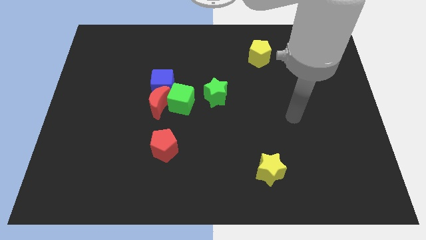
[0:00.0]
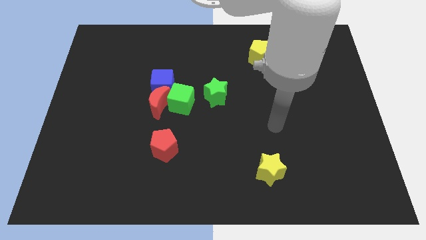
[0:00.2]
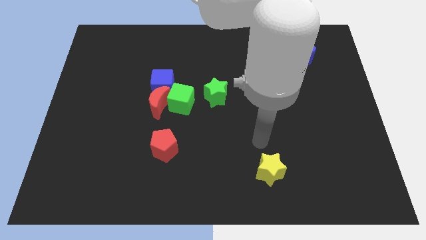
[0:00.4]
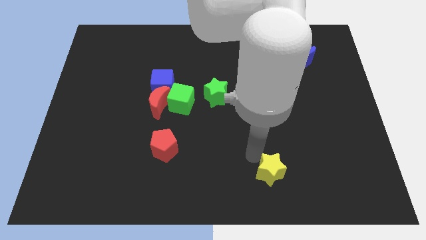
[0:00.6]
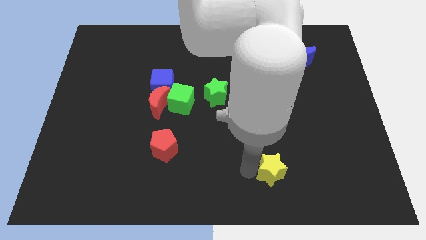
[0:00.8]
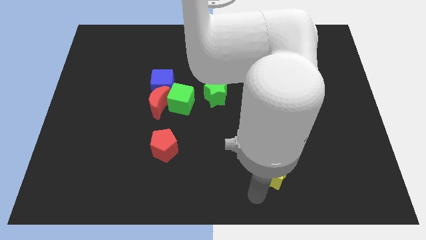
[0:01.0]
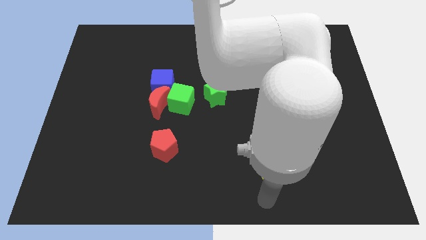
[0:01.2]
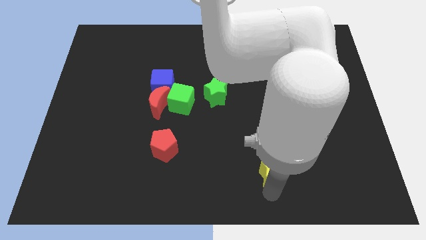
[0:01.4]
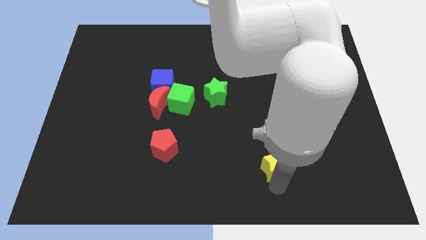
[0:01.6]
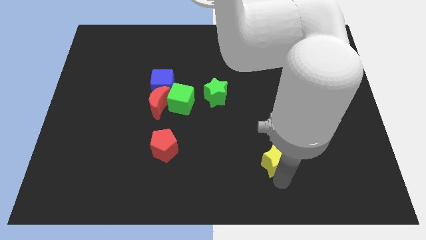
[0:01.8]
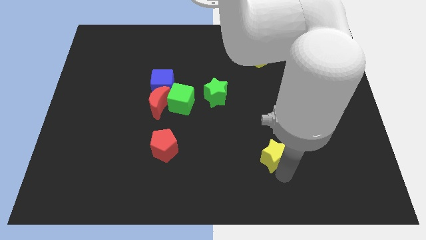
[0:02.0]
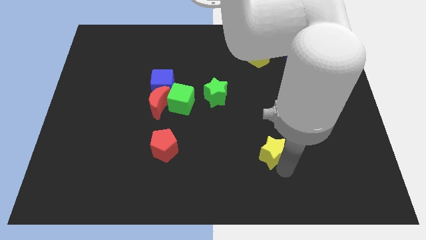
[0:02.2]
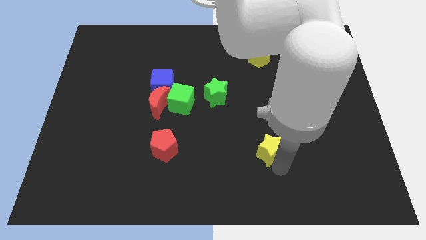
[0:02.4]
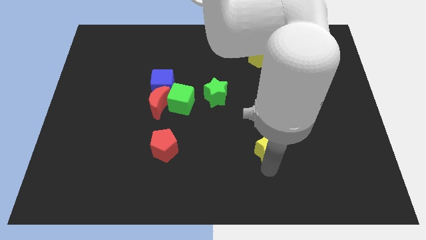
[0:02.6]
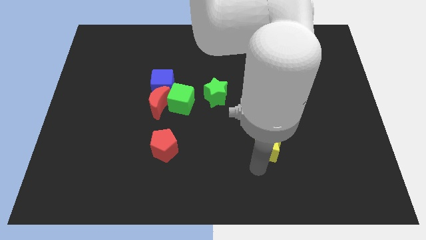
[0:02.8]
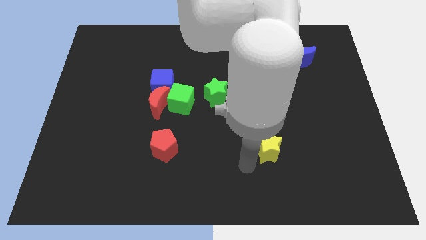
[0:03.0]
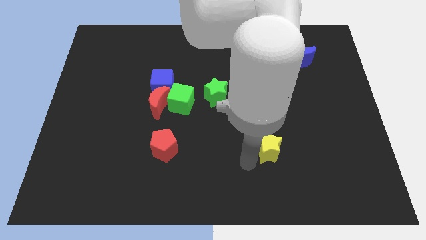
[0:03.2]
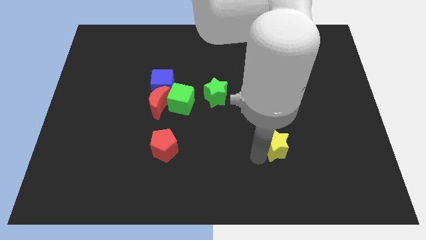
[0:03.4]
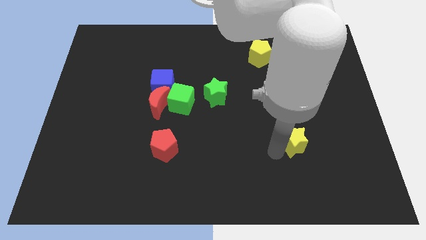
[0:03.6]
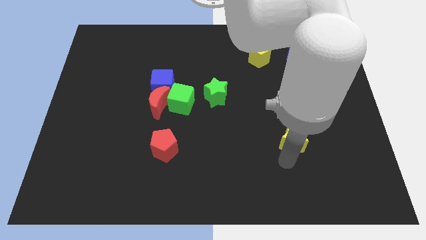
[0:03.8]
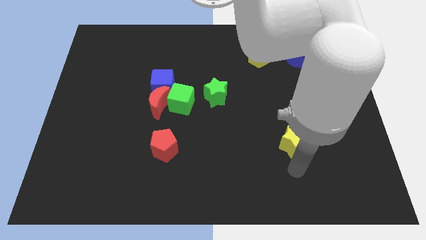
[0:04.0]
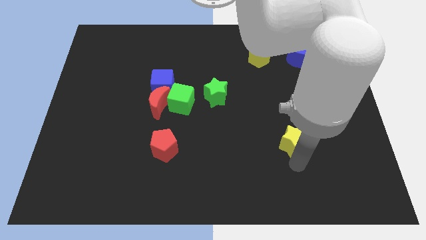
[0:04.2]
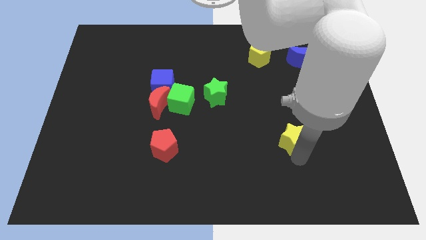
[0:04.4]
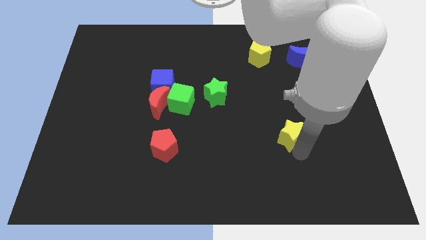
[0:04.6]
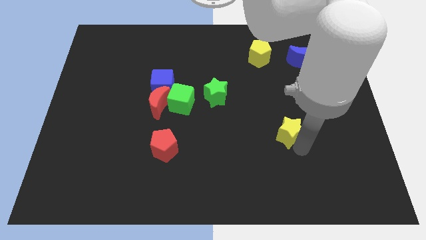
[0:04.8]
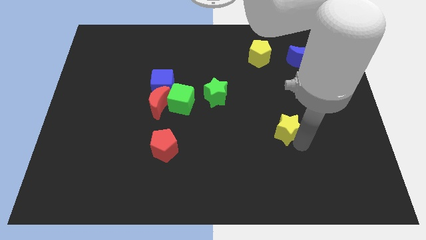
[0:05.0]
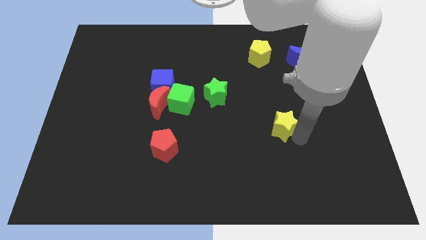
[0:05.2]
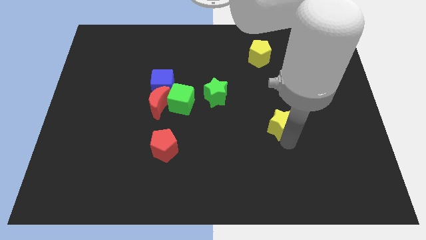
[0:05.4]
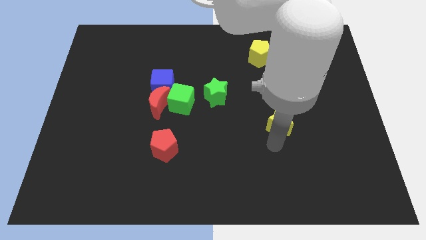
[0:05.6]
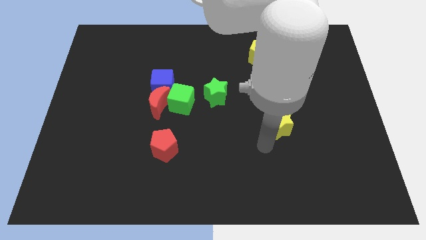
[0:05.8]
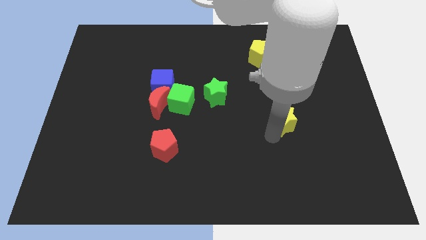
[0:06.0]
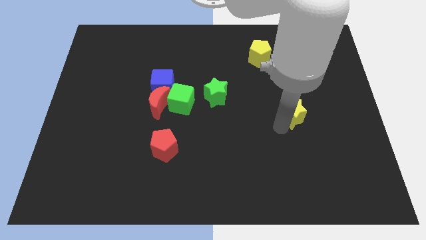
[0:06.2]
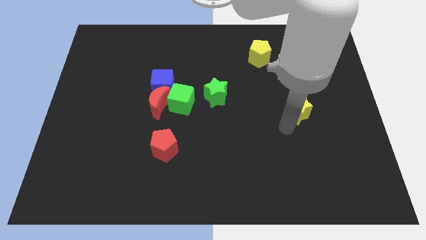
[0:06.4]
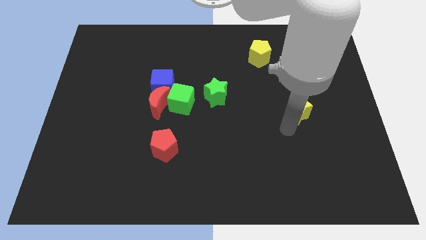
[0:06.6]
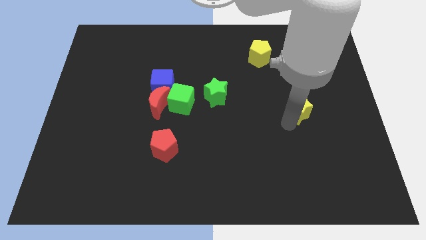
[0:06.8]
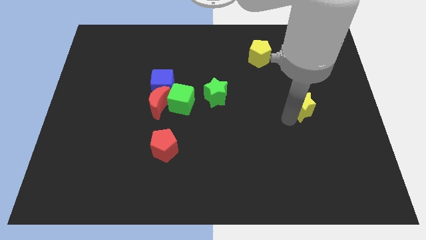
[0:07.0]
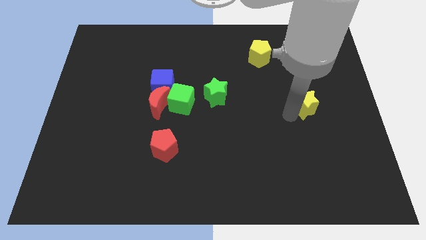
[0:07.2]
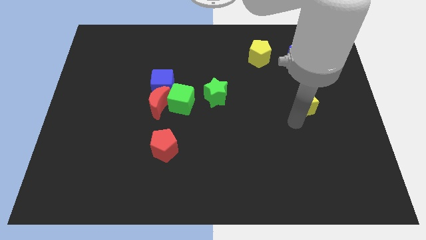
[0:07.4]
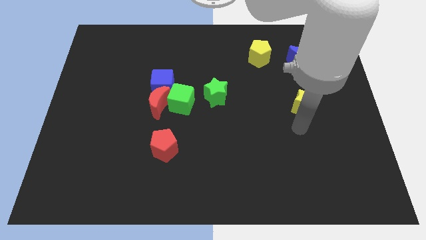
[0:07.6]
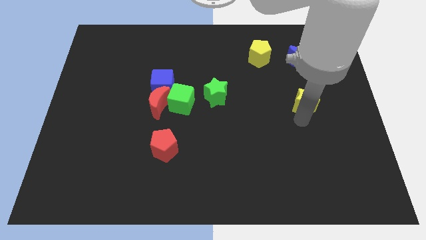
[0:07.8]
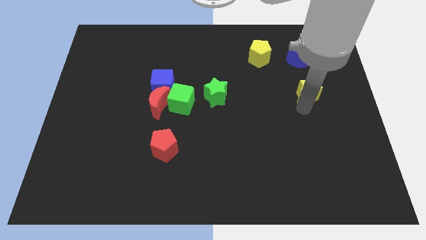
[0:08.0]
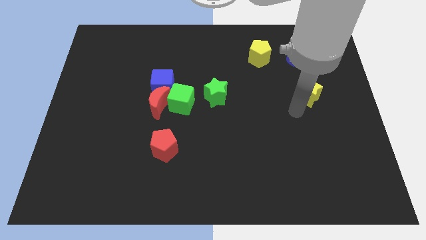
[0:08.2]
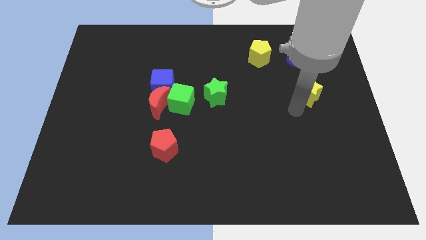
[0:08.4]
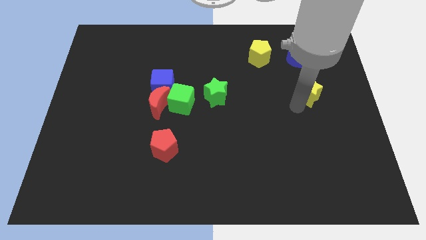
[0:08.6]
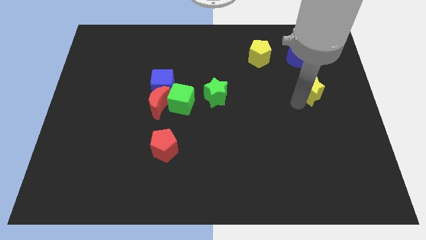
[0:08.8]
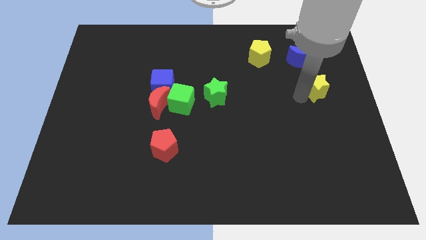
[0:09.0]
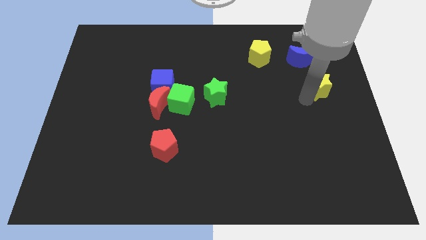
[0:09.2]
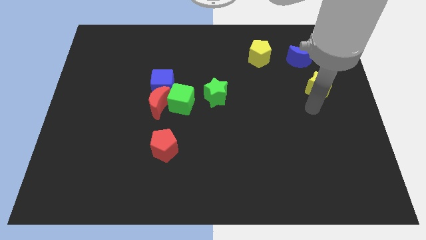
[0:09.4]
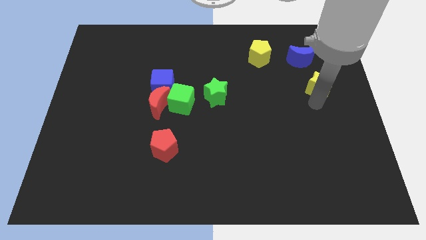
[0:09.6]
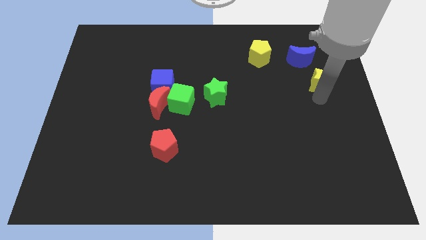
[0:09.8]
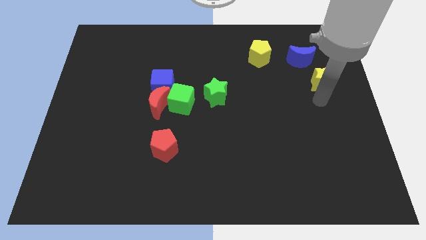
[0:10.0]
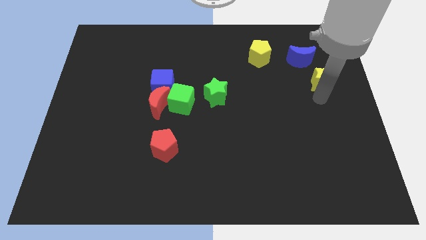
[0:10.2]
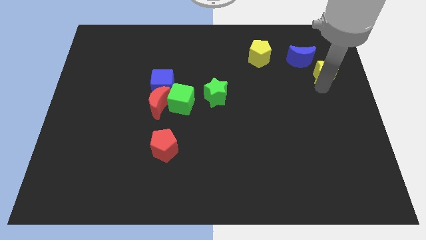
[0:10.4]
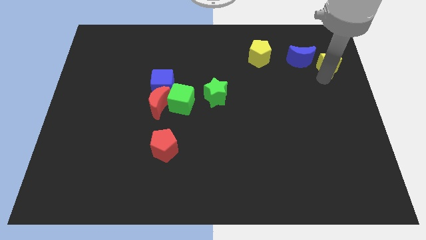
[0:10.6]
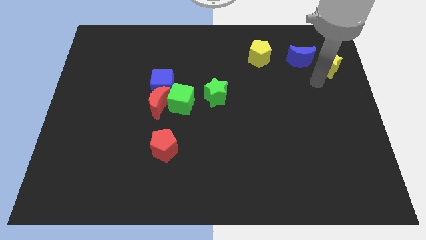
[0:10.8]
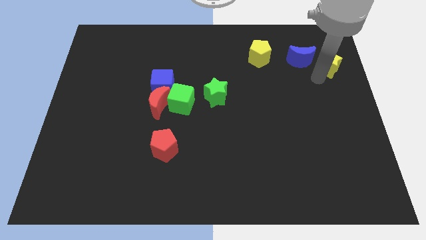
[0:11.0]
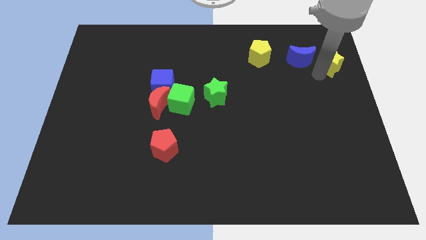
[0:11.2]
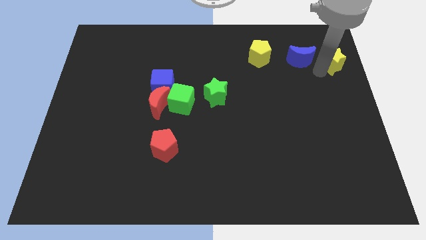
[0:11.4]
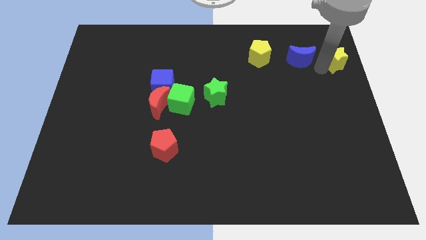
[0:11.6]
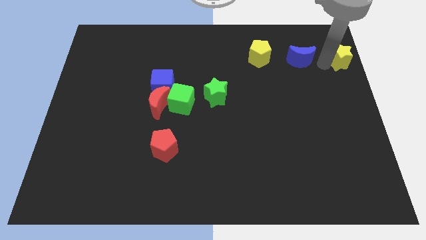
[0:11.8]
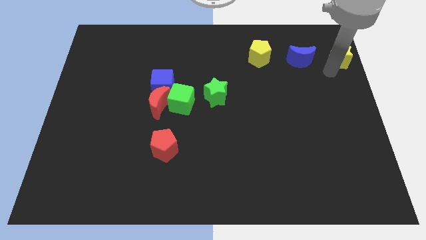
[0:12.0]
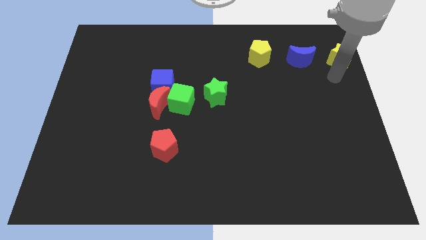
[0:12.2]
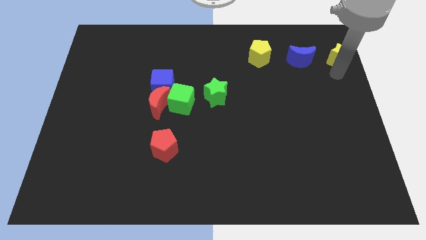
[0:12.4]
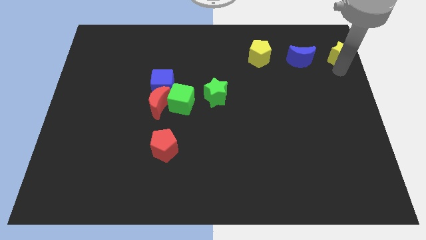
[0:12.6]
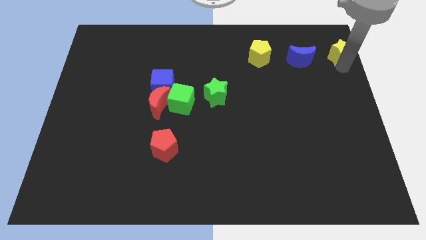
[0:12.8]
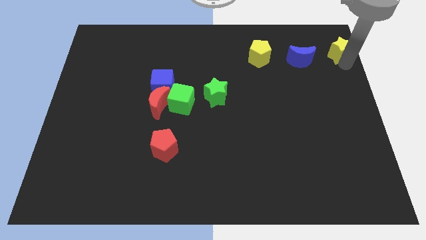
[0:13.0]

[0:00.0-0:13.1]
move the yellow star to the upper right corner

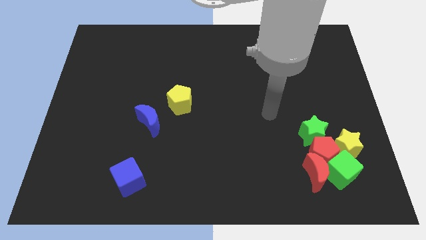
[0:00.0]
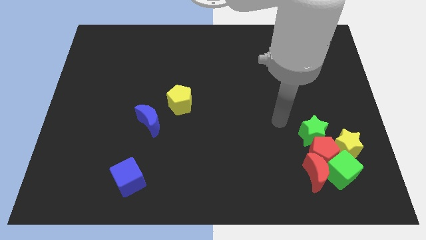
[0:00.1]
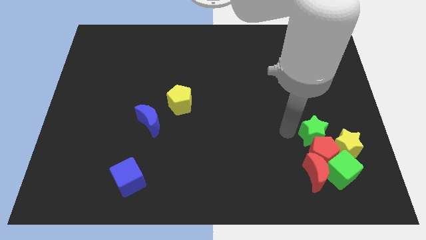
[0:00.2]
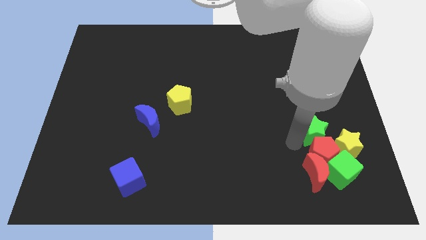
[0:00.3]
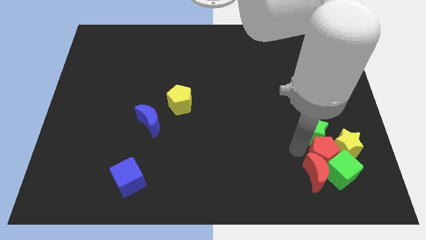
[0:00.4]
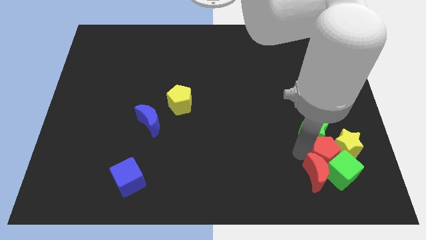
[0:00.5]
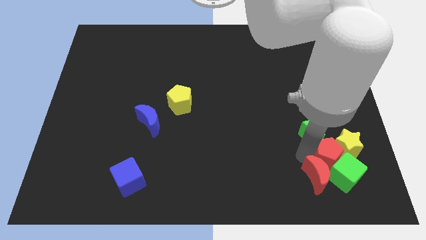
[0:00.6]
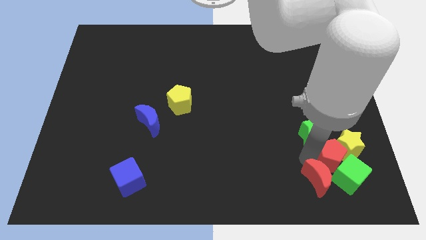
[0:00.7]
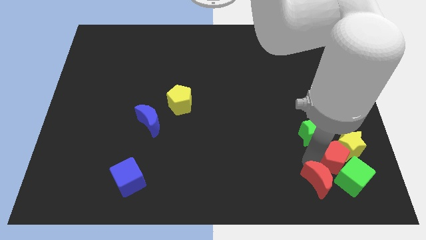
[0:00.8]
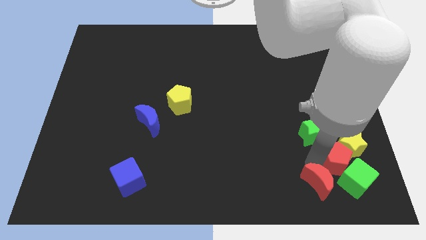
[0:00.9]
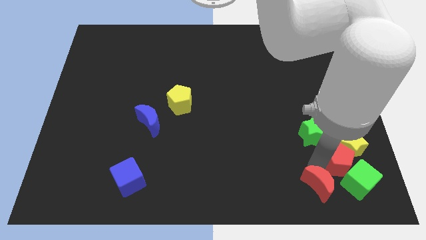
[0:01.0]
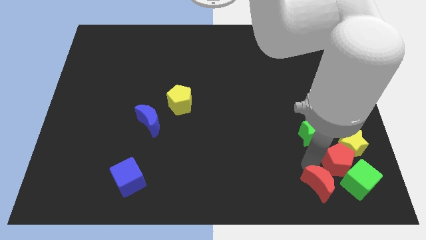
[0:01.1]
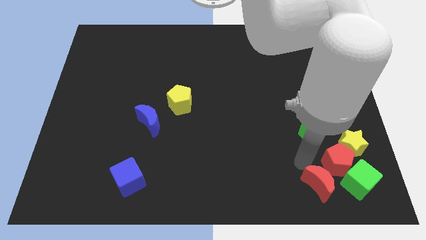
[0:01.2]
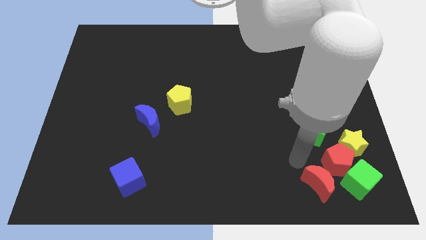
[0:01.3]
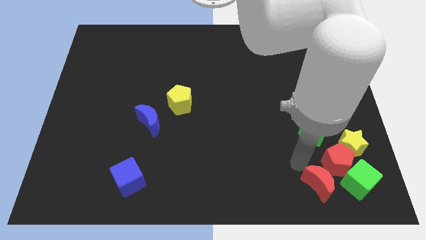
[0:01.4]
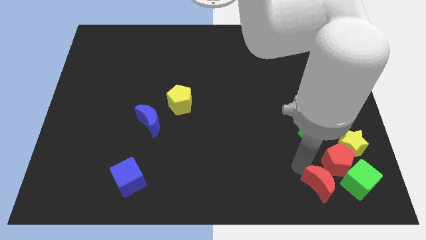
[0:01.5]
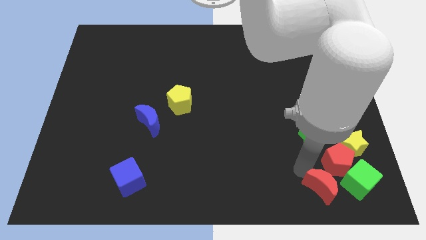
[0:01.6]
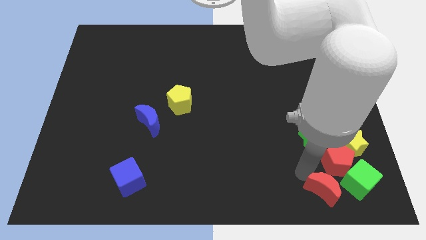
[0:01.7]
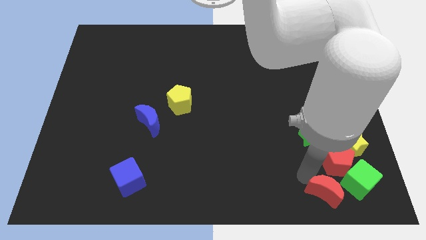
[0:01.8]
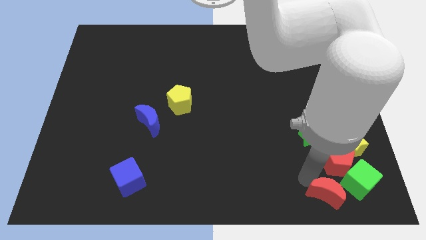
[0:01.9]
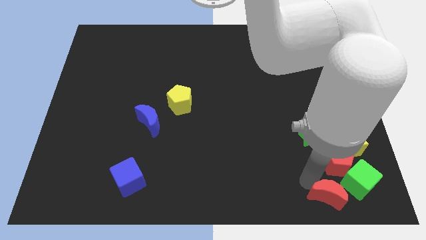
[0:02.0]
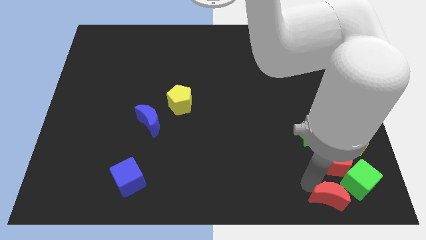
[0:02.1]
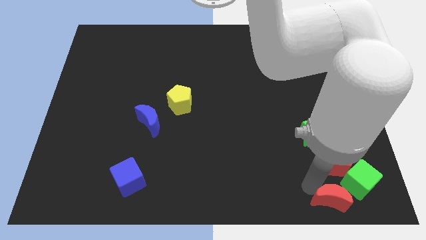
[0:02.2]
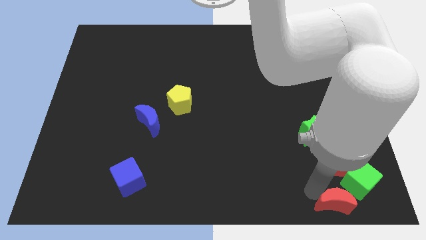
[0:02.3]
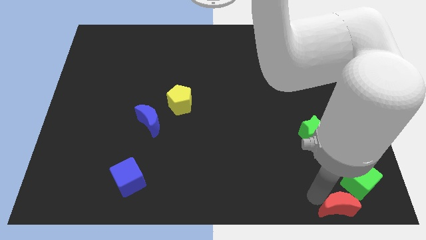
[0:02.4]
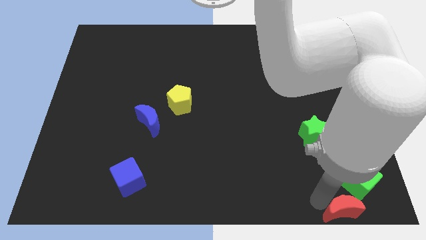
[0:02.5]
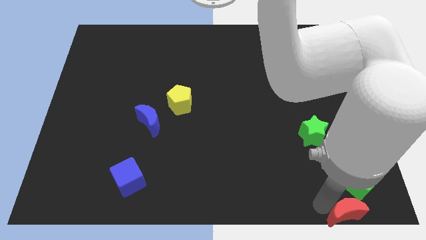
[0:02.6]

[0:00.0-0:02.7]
put the red moon to the bottom right
